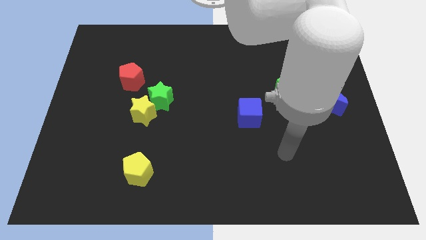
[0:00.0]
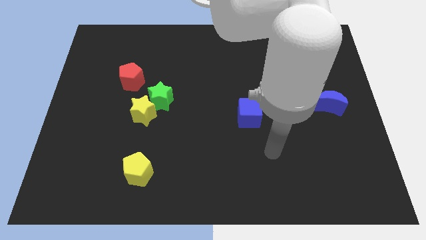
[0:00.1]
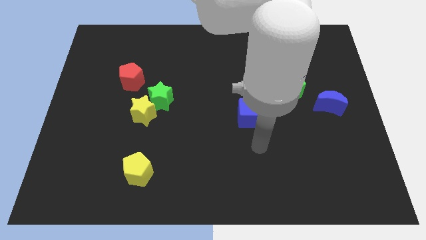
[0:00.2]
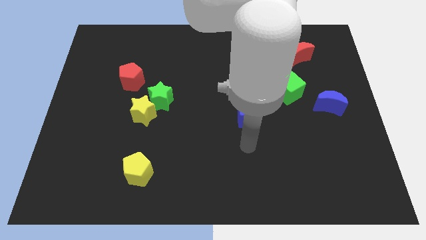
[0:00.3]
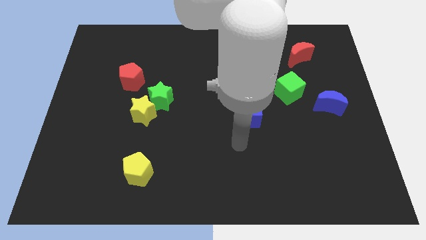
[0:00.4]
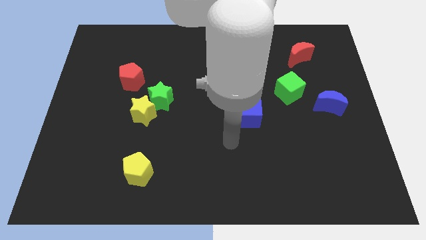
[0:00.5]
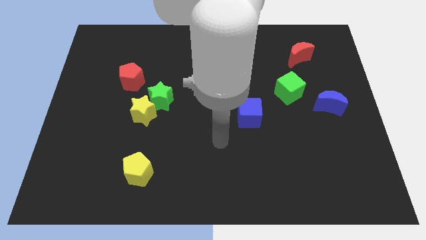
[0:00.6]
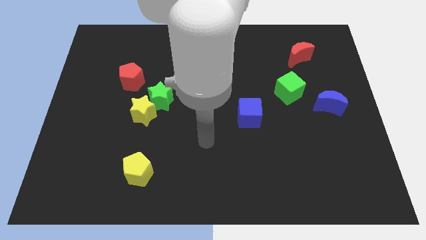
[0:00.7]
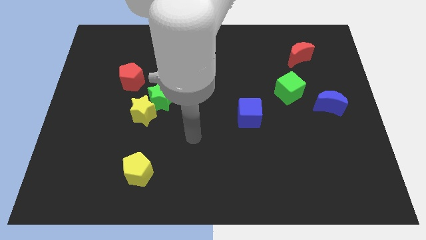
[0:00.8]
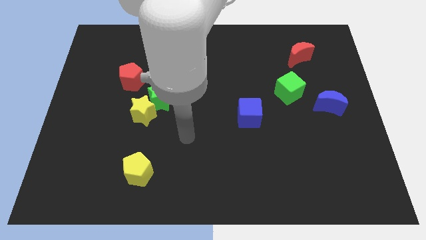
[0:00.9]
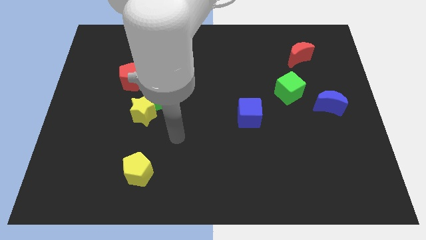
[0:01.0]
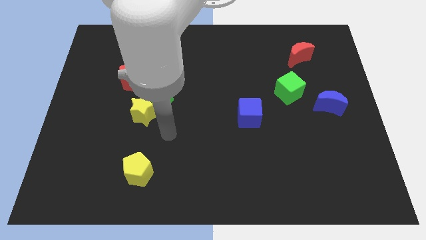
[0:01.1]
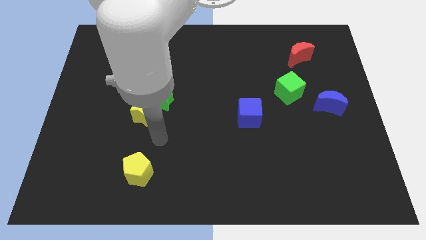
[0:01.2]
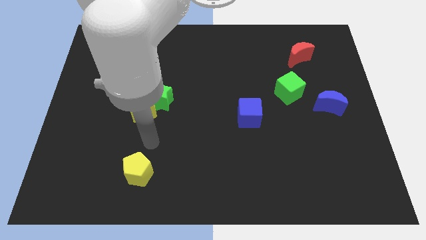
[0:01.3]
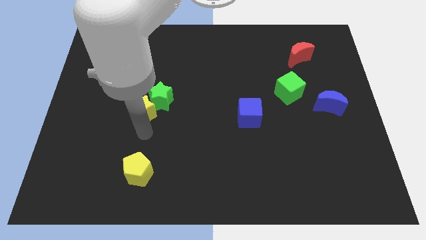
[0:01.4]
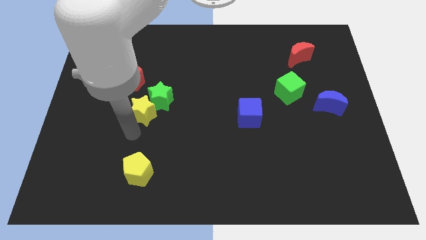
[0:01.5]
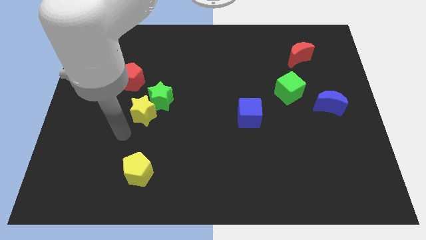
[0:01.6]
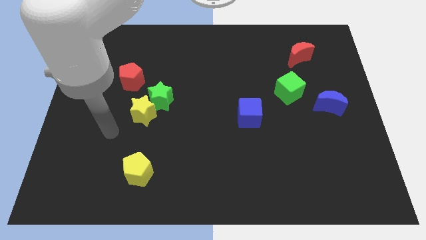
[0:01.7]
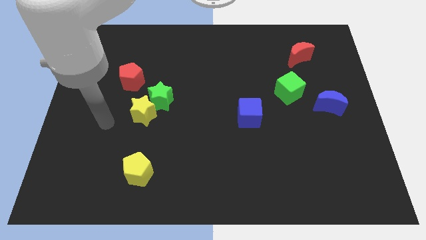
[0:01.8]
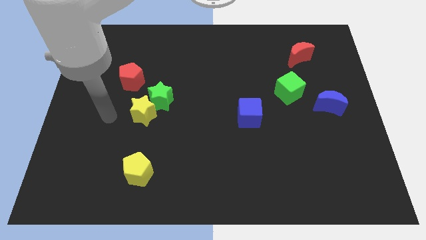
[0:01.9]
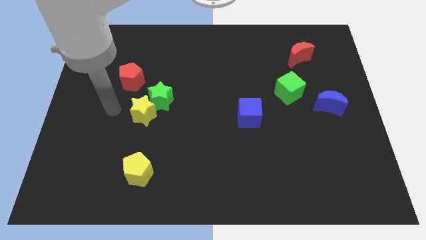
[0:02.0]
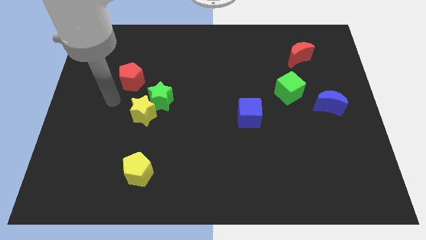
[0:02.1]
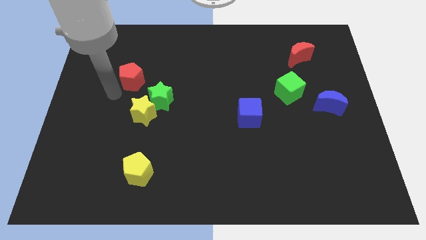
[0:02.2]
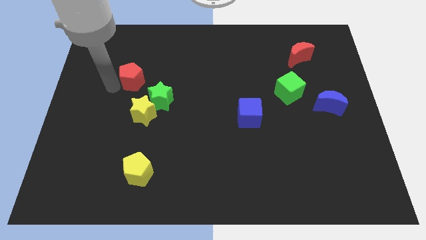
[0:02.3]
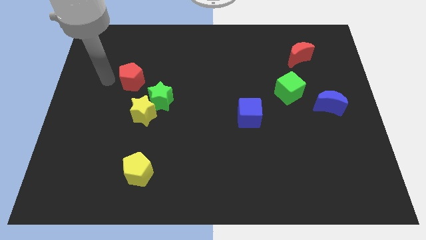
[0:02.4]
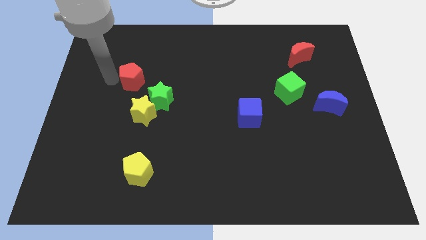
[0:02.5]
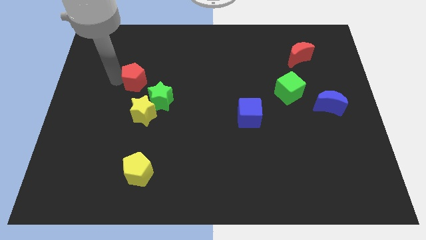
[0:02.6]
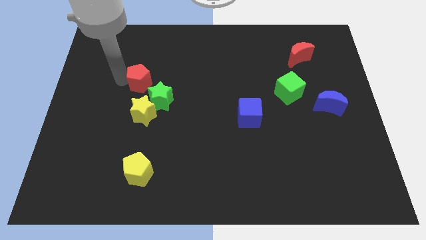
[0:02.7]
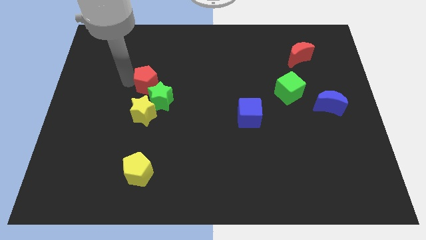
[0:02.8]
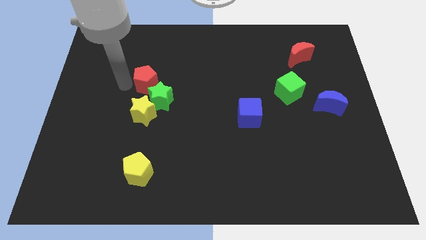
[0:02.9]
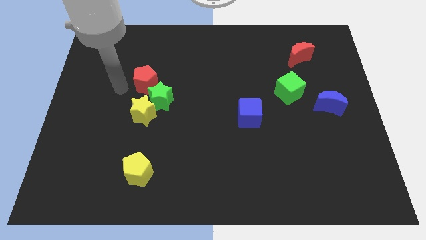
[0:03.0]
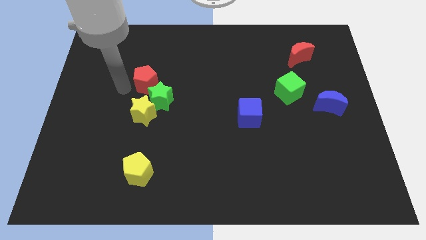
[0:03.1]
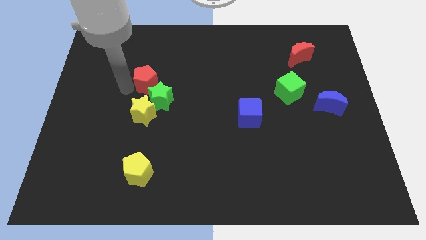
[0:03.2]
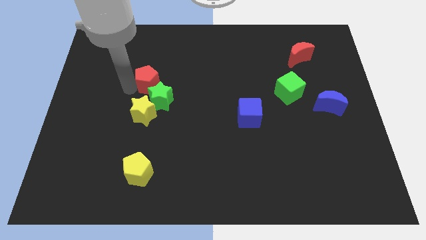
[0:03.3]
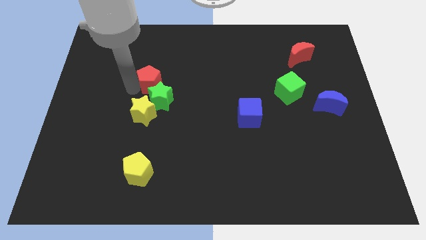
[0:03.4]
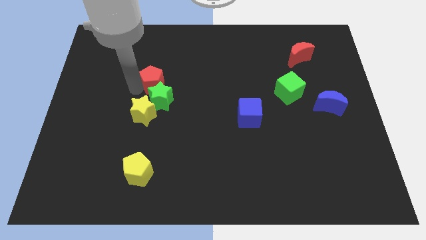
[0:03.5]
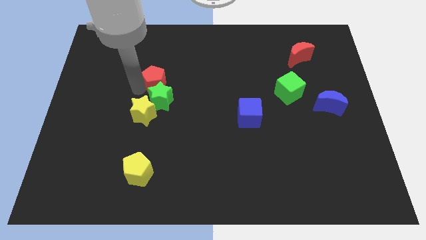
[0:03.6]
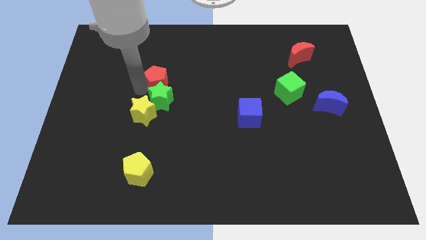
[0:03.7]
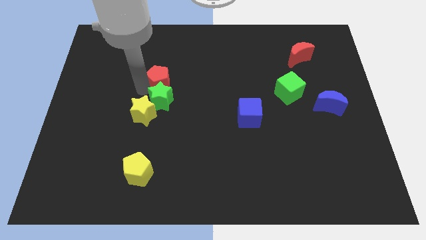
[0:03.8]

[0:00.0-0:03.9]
slide the red pentagon a little bit right

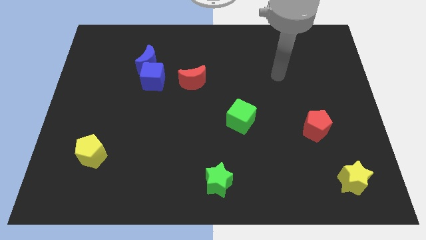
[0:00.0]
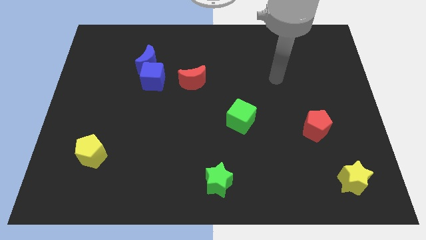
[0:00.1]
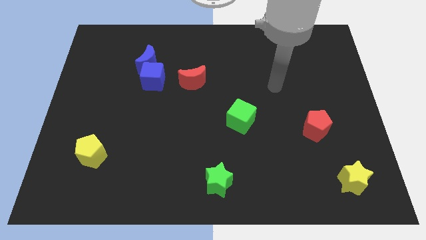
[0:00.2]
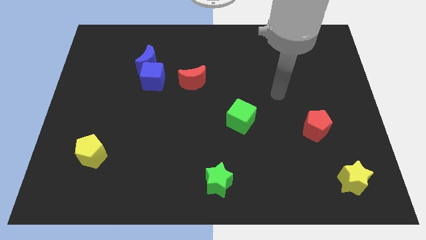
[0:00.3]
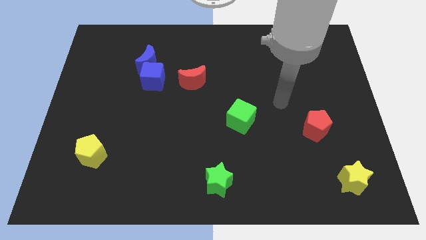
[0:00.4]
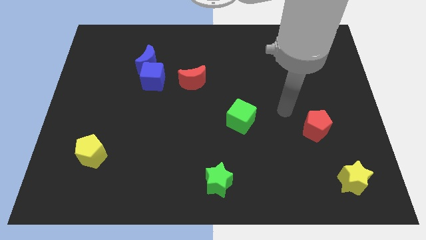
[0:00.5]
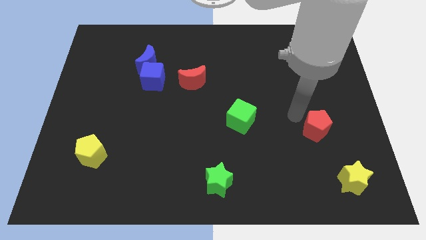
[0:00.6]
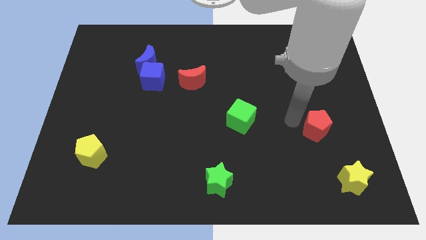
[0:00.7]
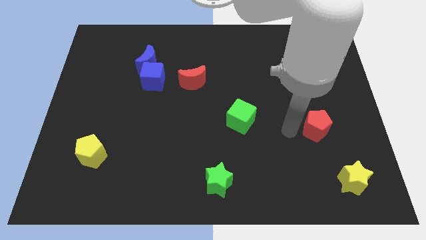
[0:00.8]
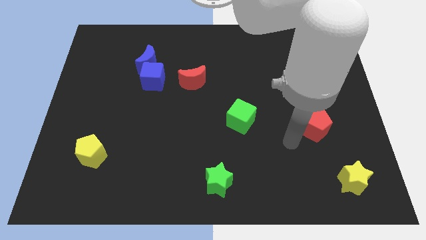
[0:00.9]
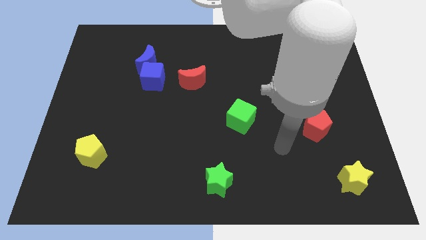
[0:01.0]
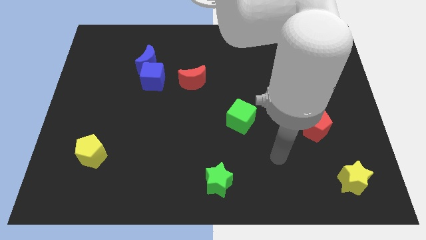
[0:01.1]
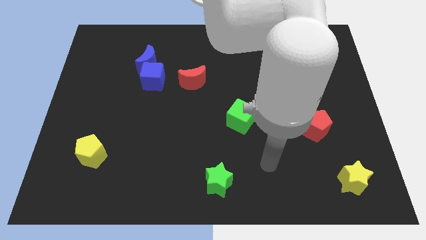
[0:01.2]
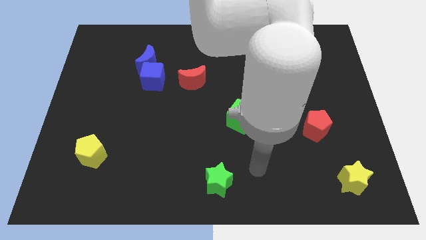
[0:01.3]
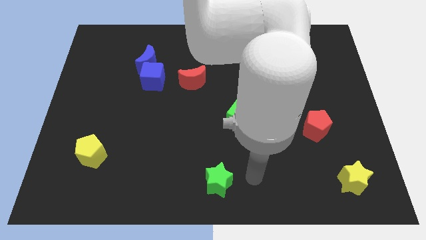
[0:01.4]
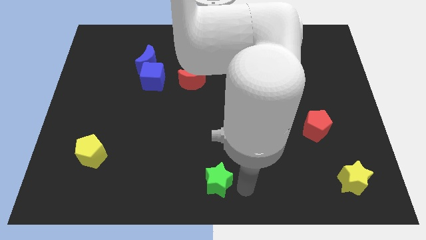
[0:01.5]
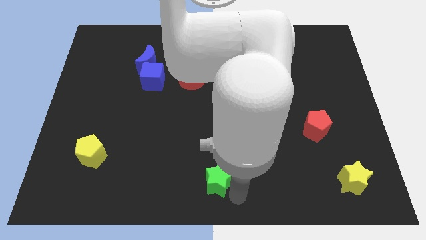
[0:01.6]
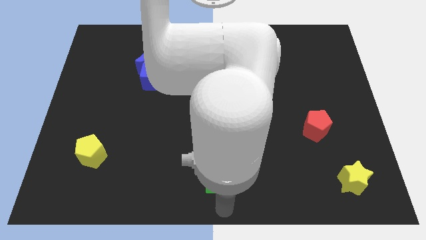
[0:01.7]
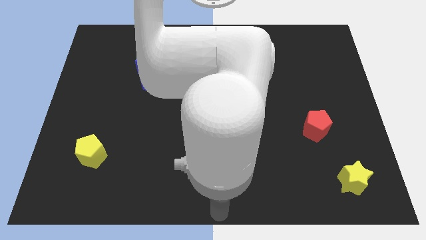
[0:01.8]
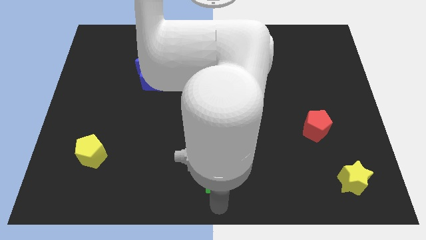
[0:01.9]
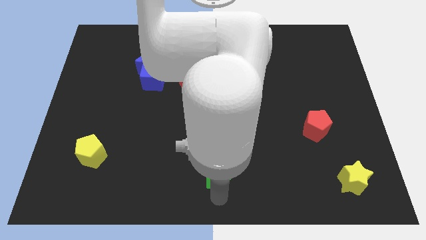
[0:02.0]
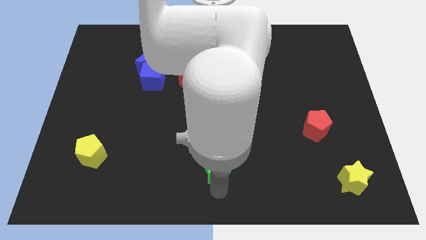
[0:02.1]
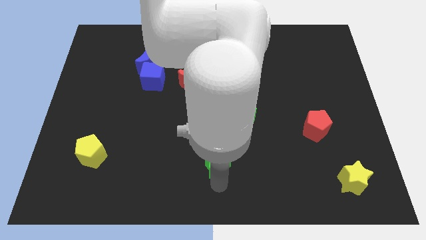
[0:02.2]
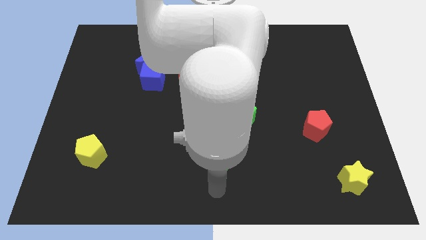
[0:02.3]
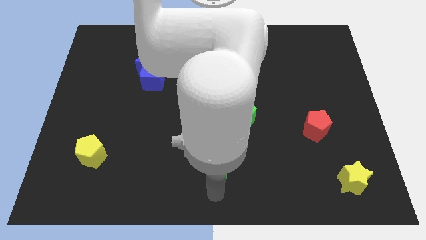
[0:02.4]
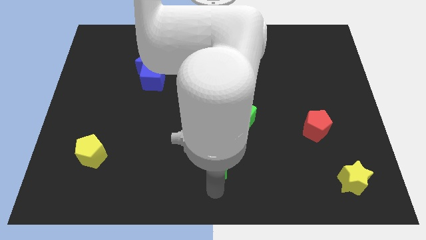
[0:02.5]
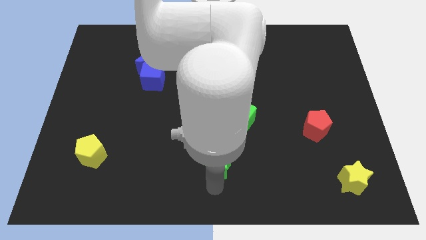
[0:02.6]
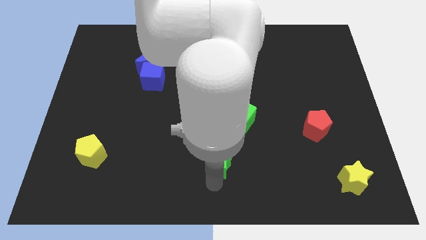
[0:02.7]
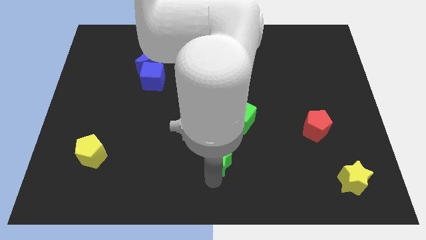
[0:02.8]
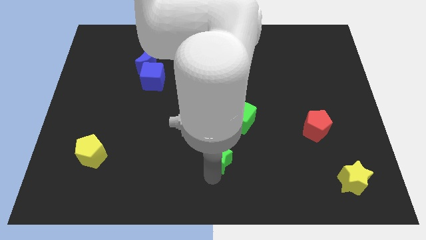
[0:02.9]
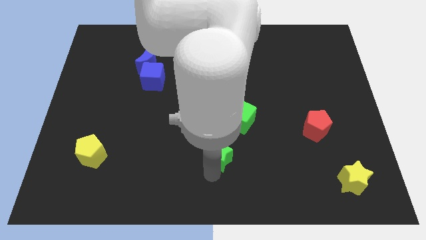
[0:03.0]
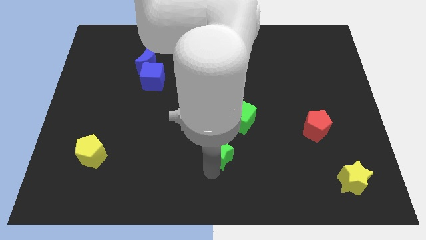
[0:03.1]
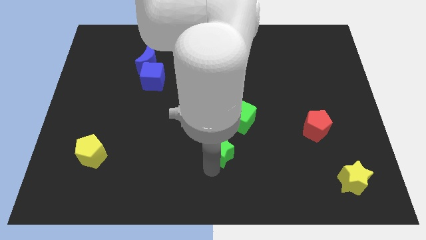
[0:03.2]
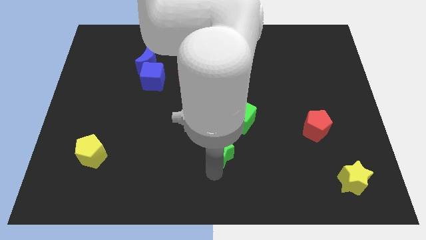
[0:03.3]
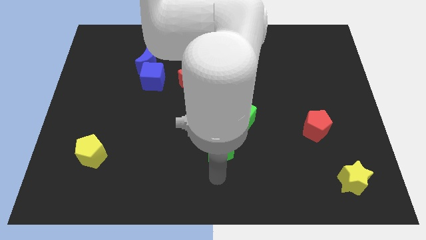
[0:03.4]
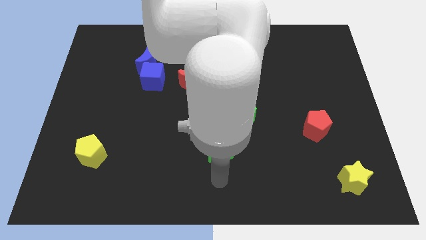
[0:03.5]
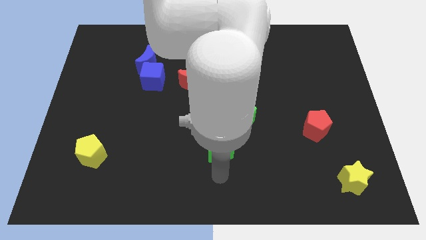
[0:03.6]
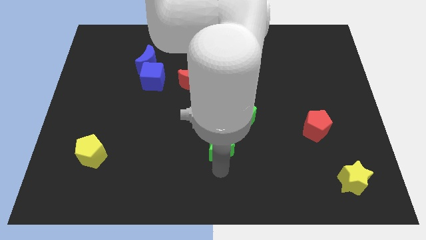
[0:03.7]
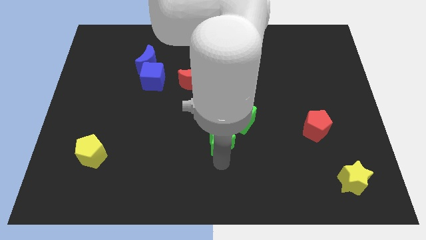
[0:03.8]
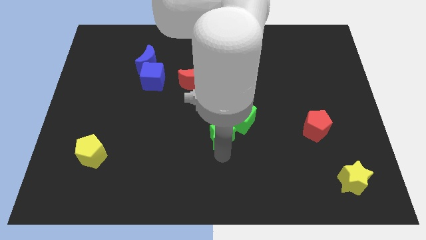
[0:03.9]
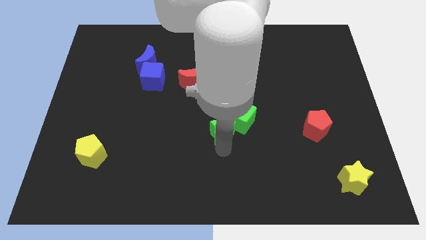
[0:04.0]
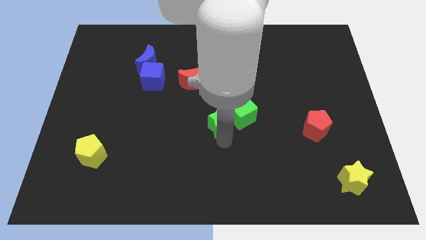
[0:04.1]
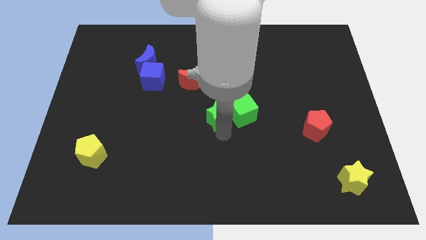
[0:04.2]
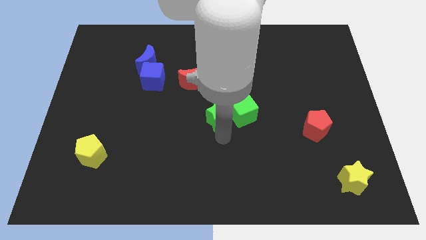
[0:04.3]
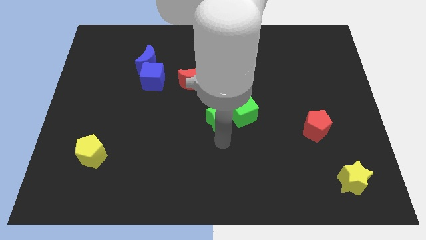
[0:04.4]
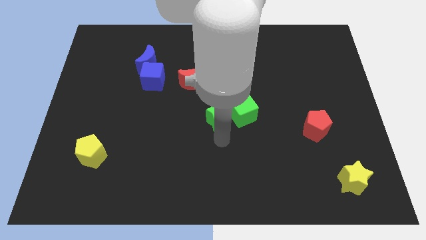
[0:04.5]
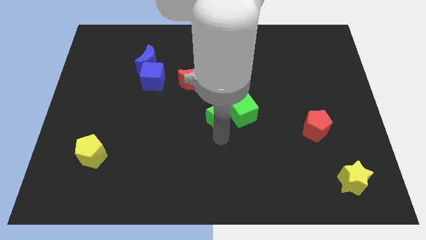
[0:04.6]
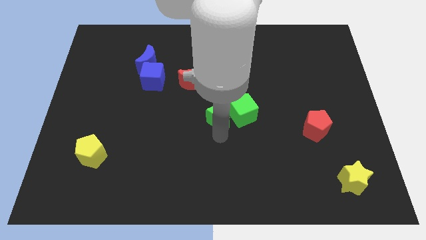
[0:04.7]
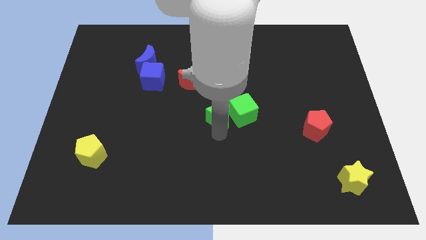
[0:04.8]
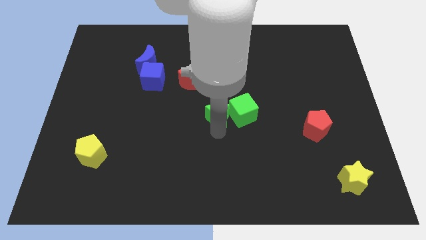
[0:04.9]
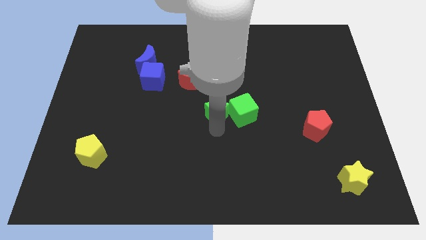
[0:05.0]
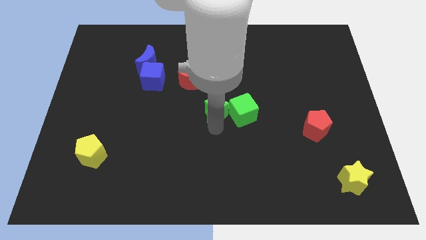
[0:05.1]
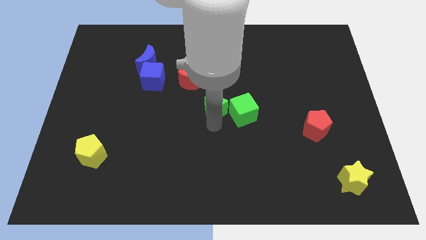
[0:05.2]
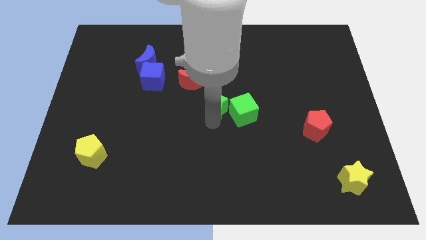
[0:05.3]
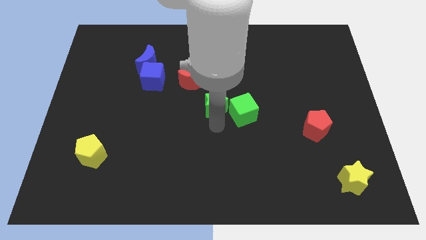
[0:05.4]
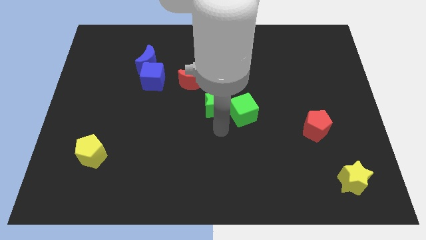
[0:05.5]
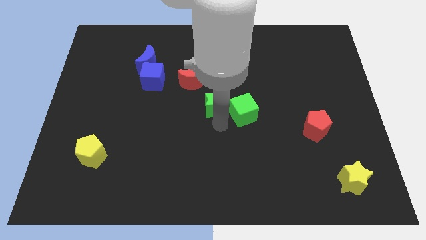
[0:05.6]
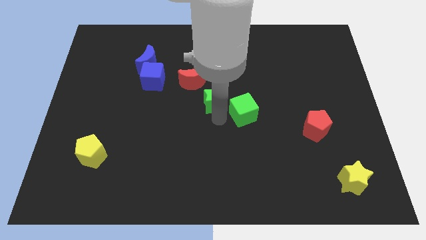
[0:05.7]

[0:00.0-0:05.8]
push the green star upwards
